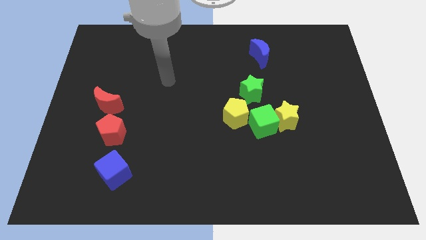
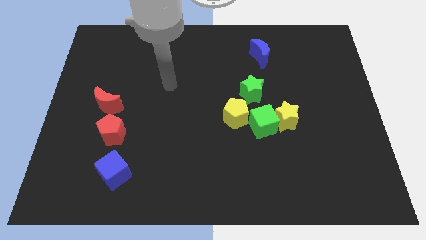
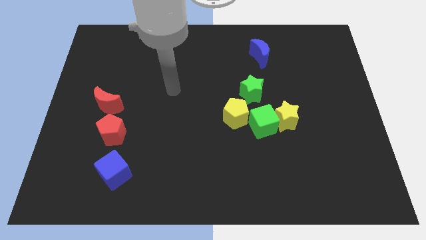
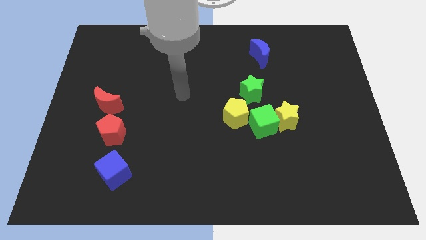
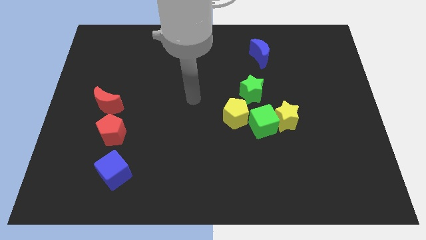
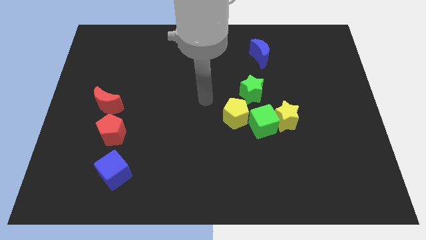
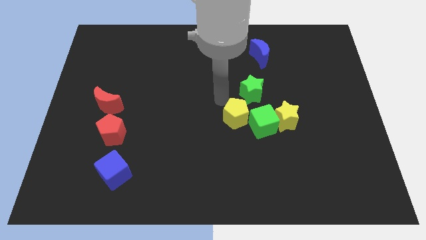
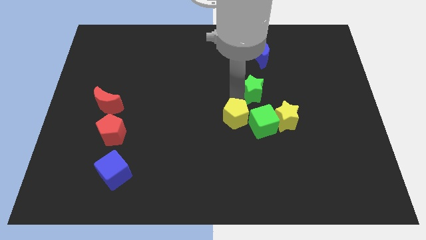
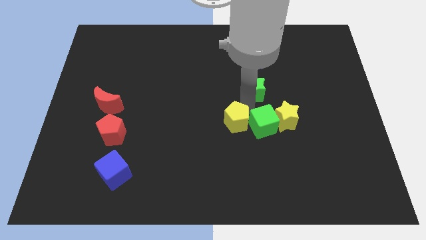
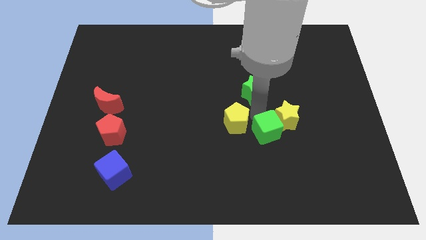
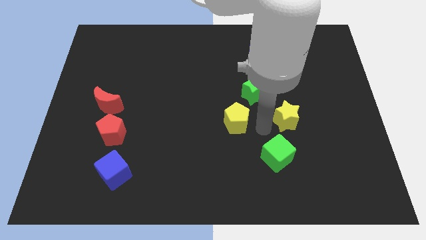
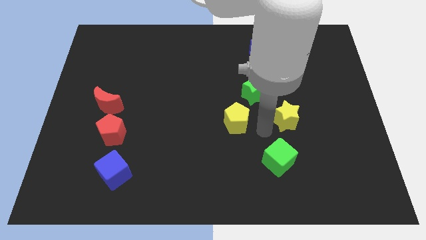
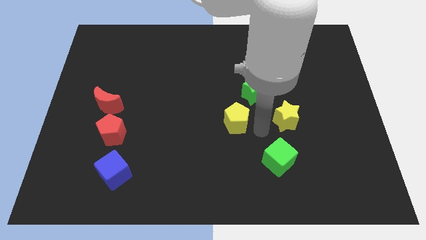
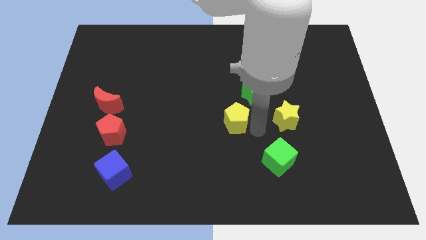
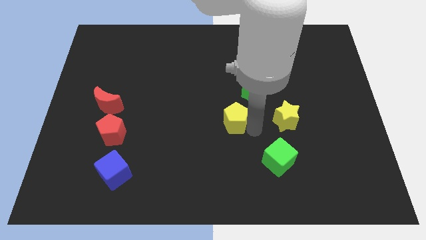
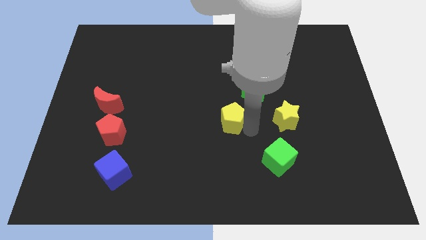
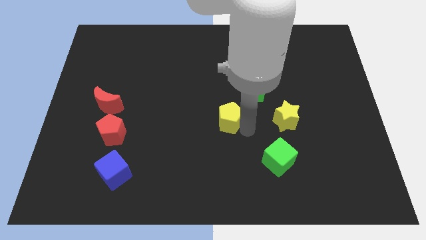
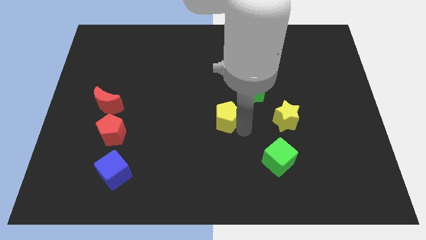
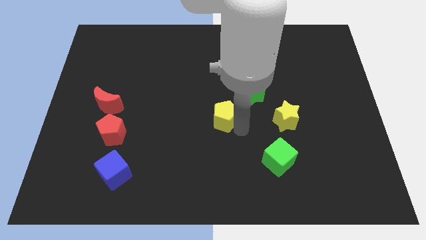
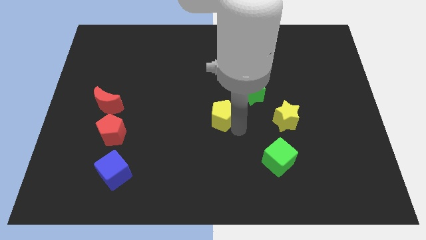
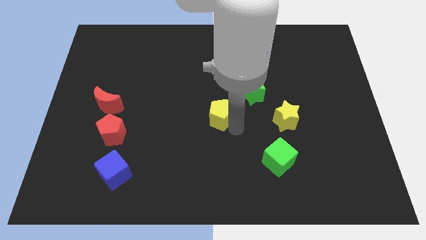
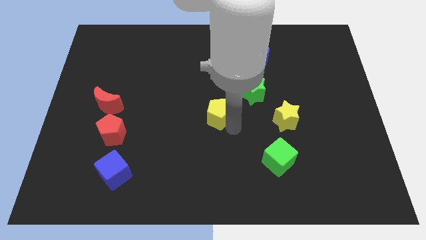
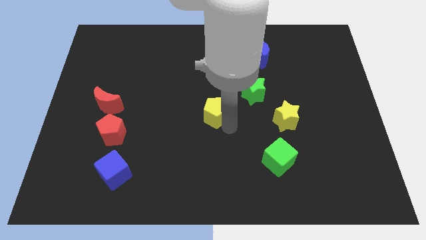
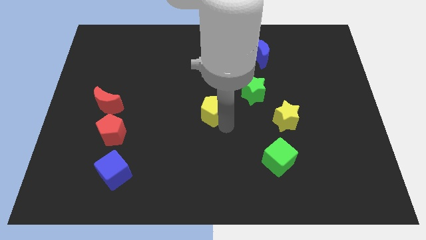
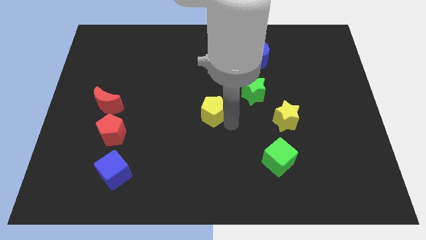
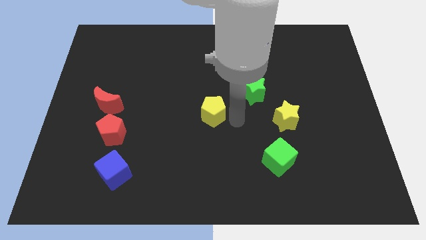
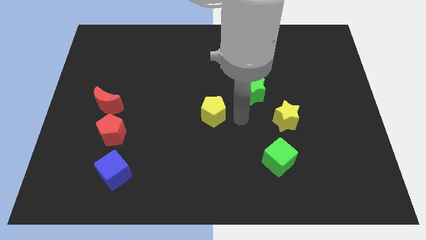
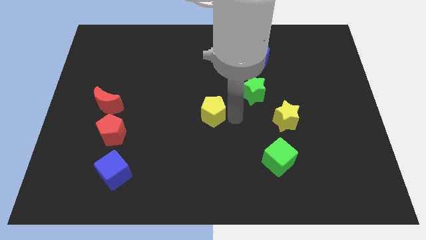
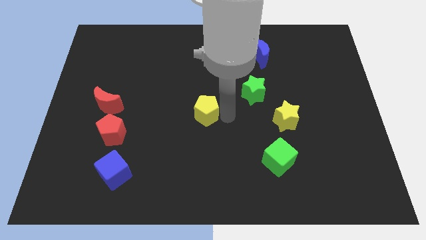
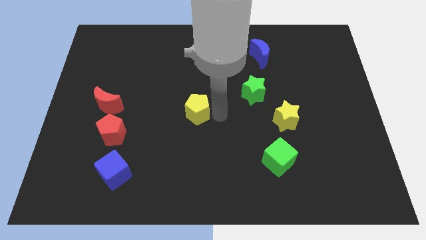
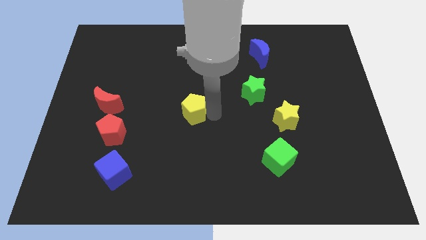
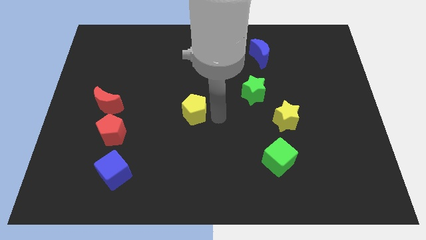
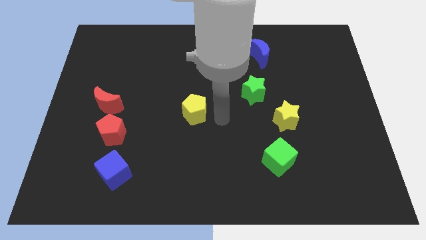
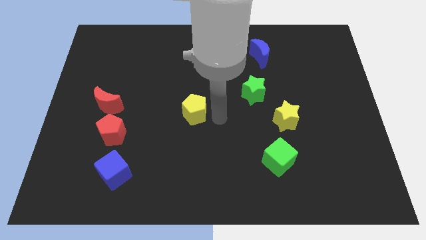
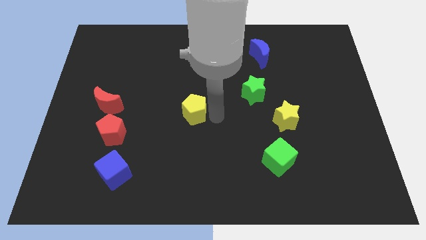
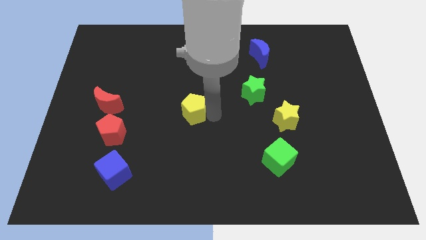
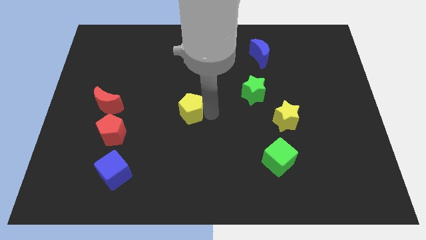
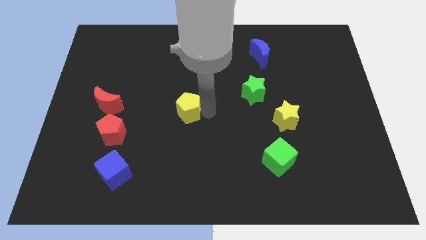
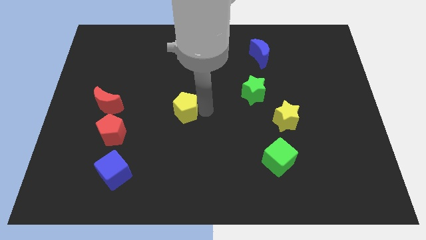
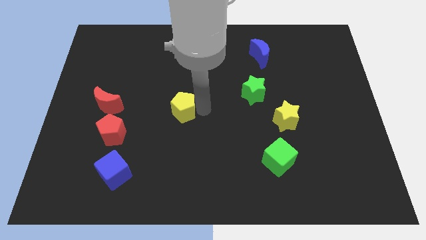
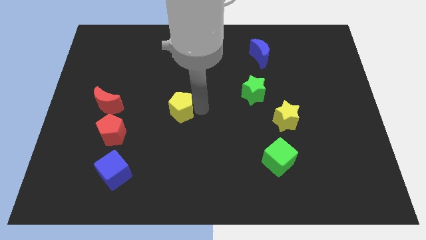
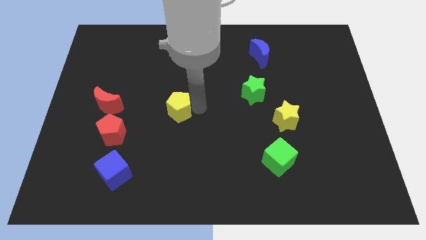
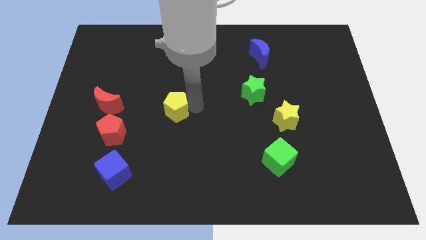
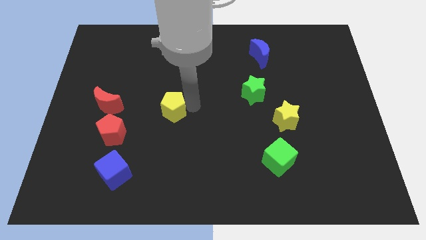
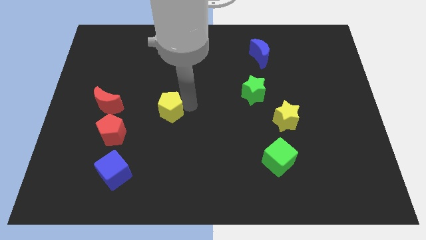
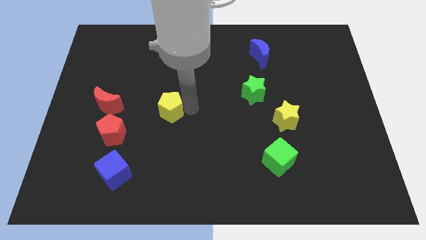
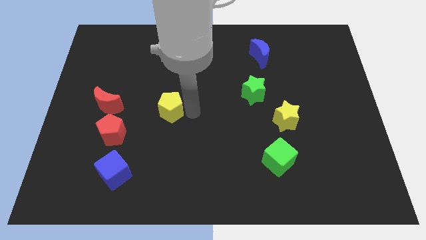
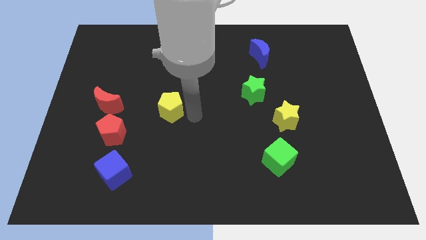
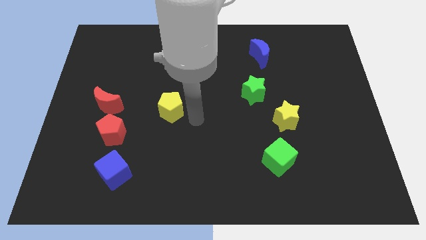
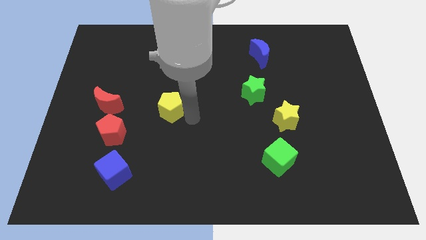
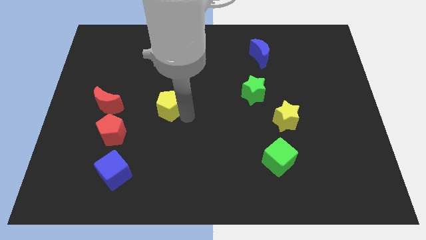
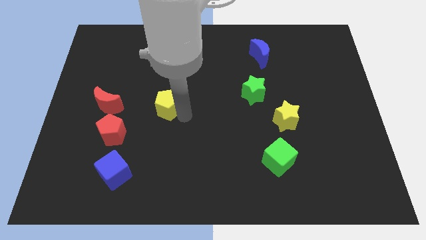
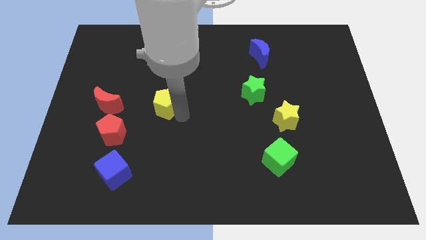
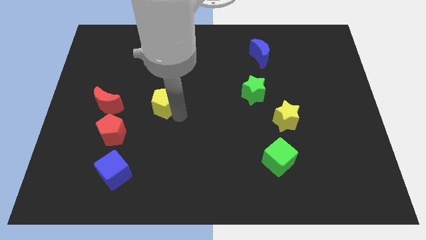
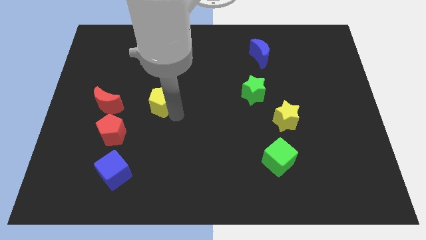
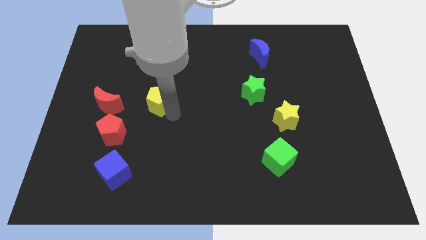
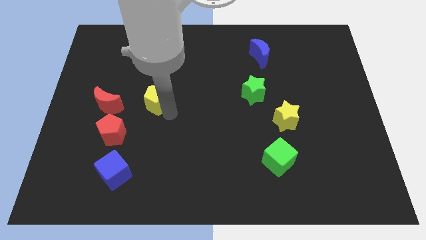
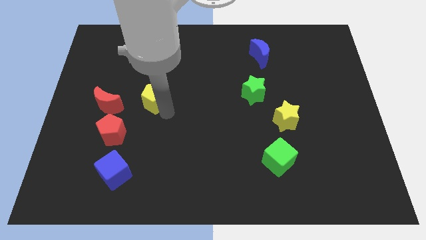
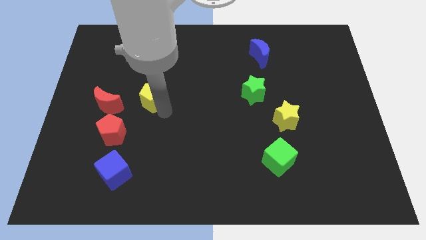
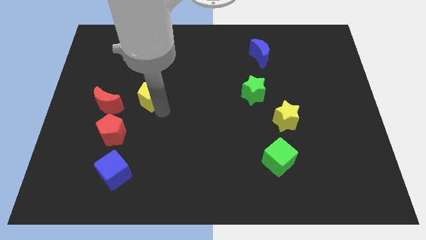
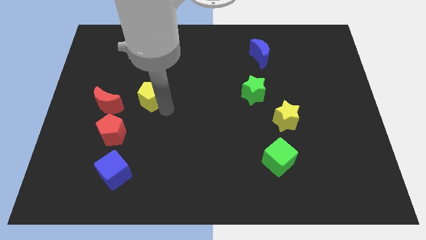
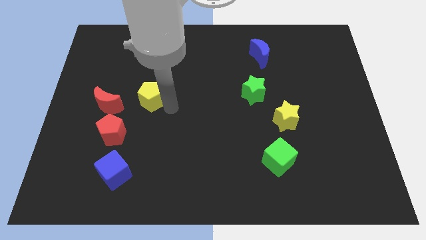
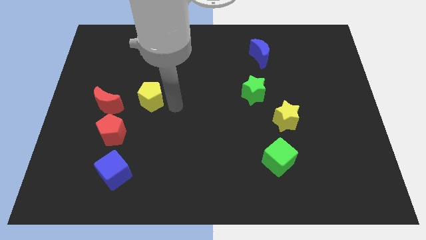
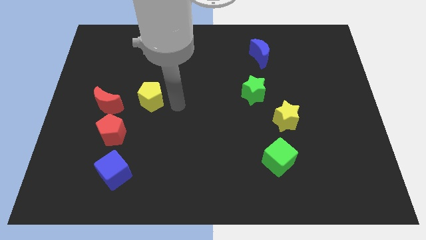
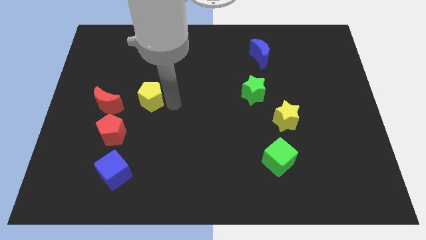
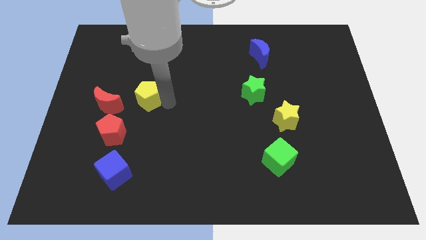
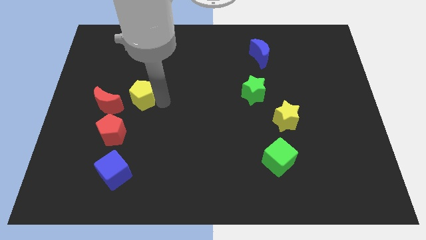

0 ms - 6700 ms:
slide the yellow pentagon to the left

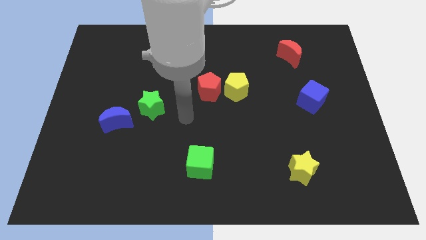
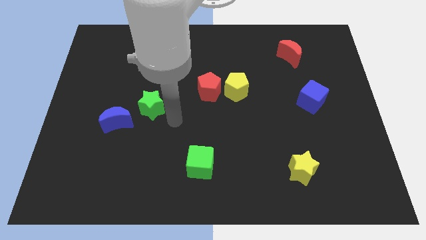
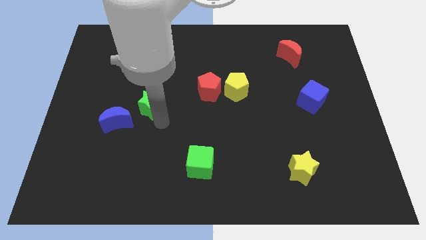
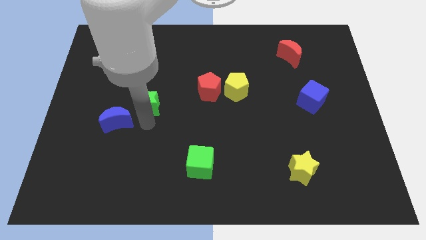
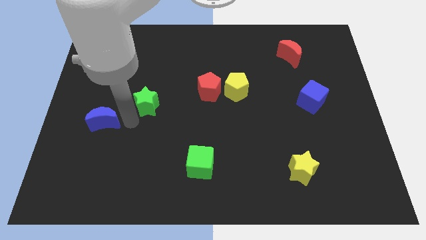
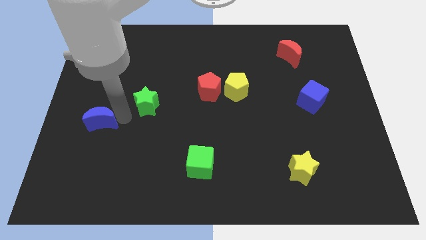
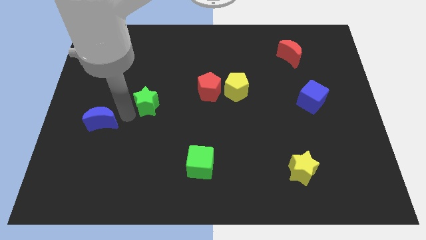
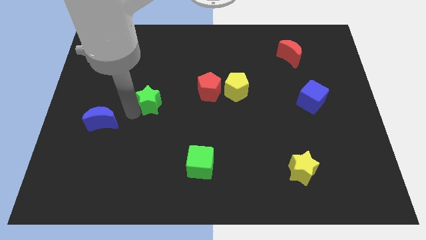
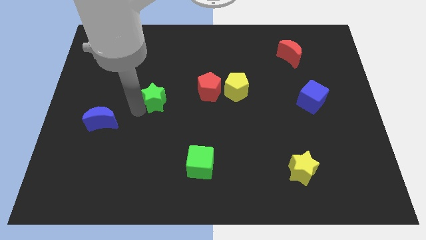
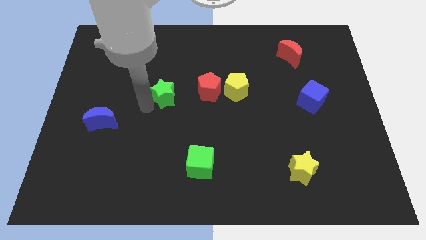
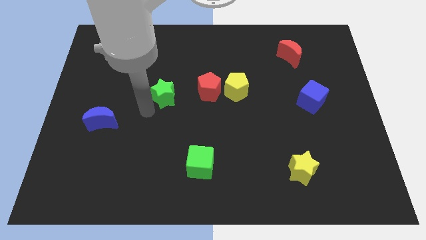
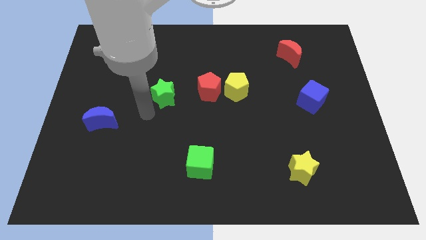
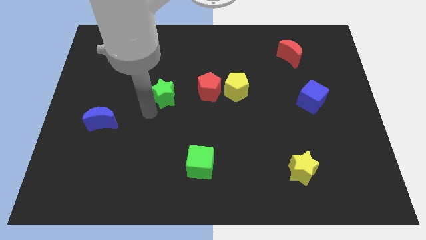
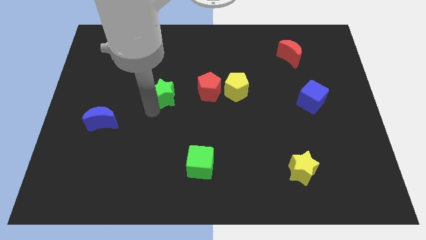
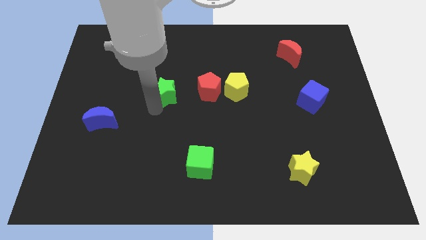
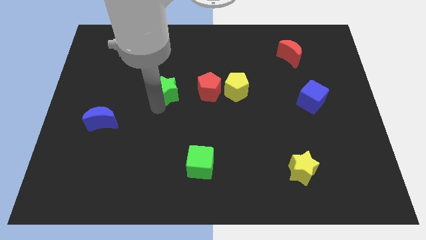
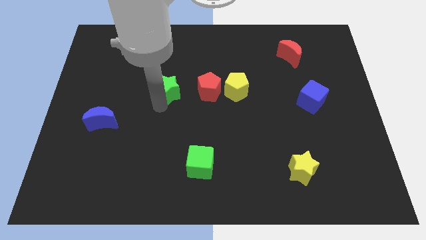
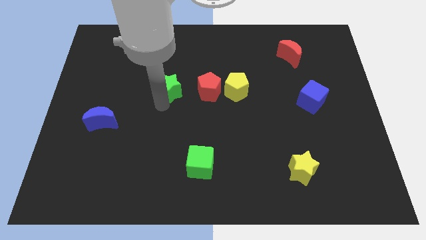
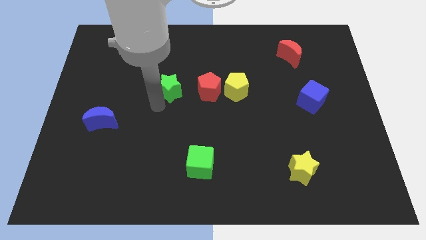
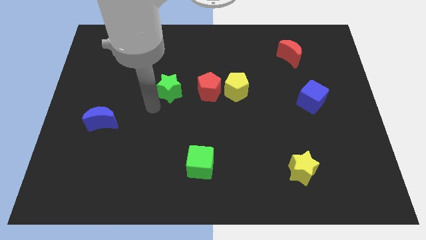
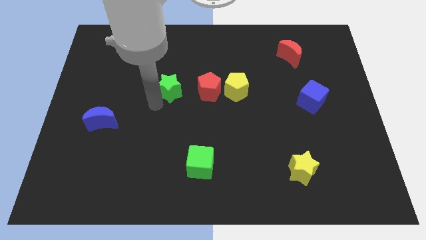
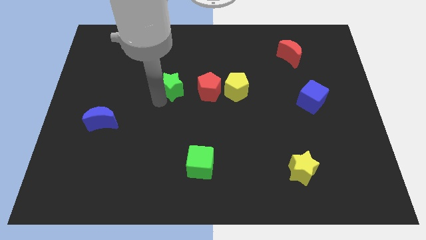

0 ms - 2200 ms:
slightly push the green star upwards and to the right diagonally
